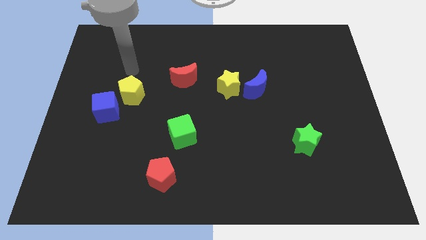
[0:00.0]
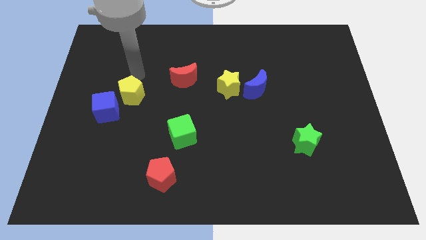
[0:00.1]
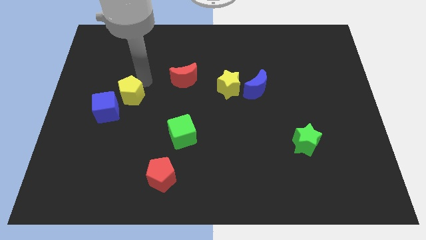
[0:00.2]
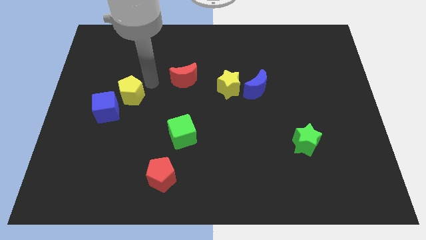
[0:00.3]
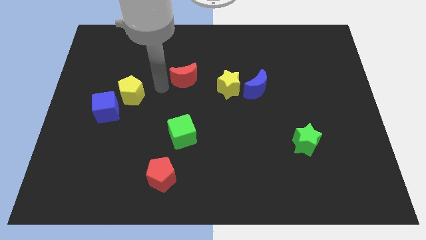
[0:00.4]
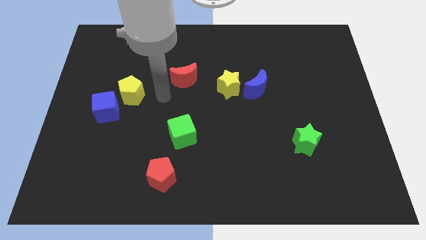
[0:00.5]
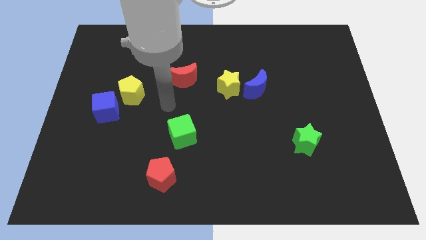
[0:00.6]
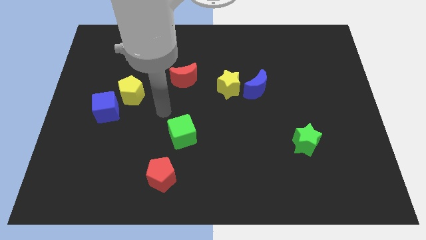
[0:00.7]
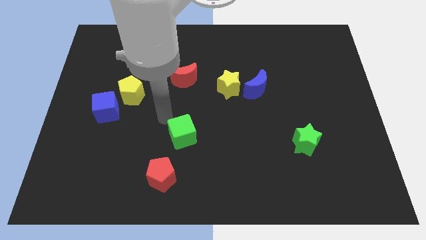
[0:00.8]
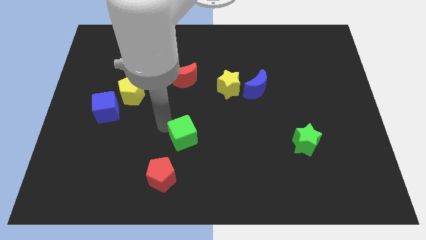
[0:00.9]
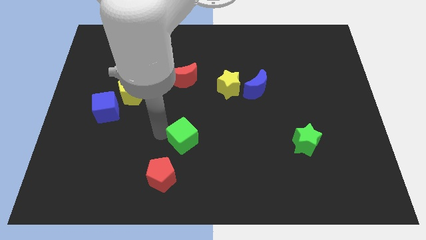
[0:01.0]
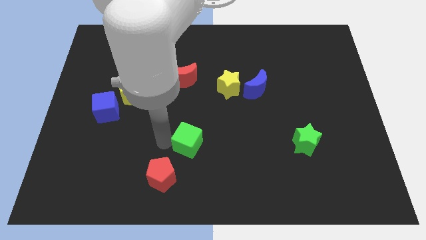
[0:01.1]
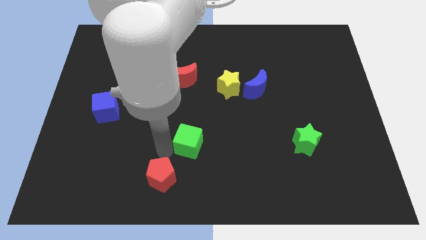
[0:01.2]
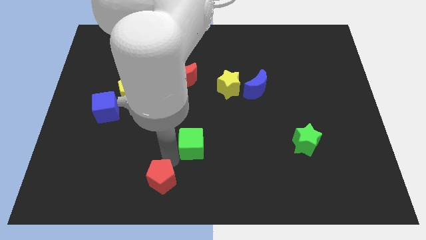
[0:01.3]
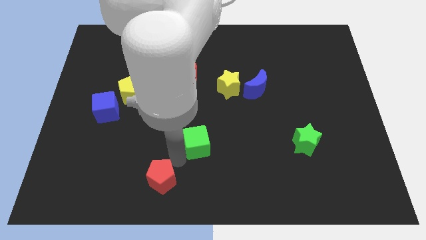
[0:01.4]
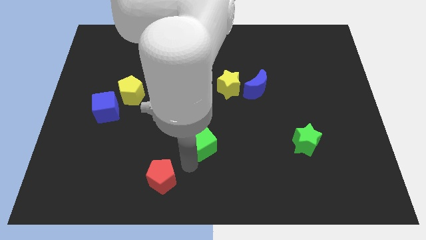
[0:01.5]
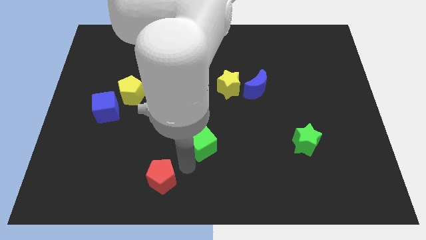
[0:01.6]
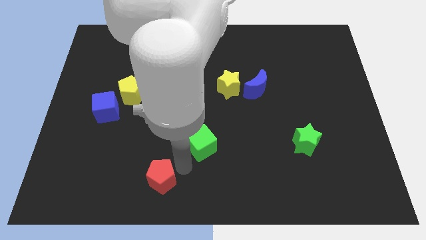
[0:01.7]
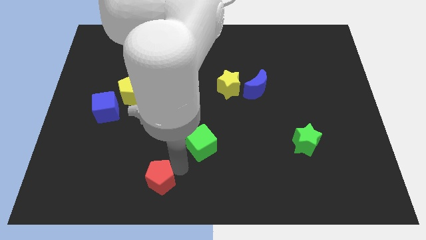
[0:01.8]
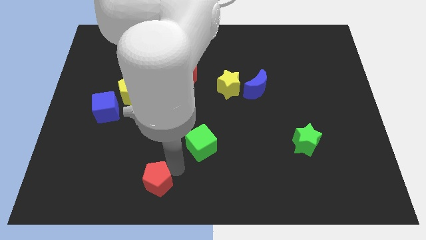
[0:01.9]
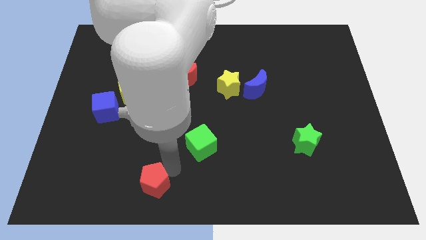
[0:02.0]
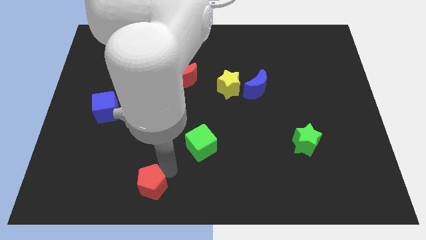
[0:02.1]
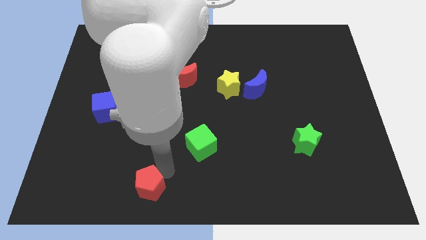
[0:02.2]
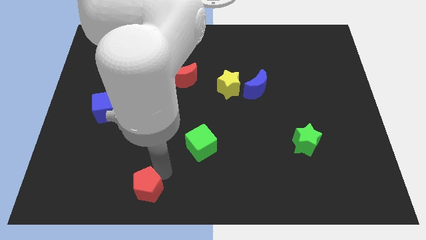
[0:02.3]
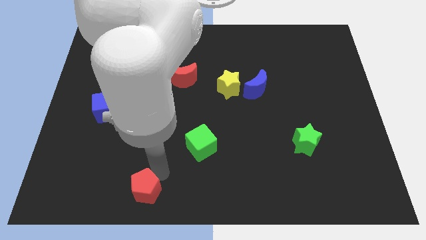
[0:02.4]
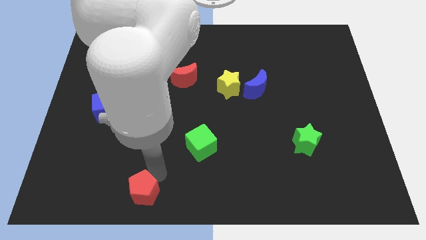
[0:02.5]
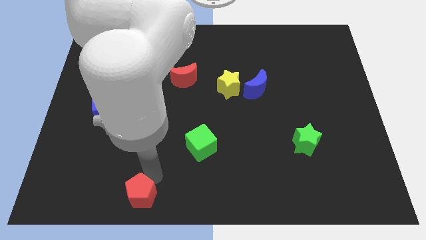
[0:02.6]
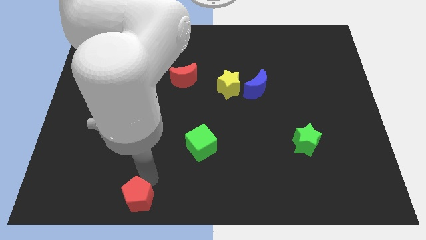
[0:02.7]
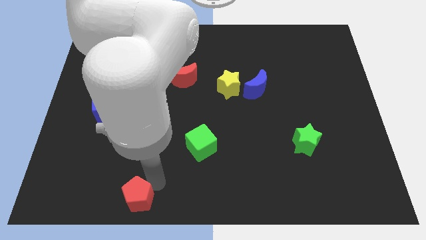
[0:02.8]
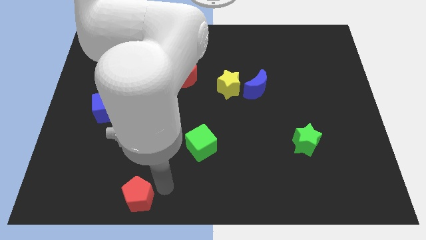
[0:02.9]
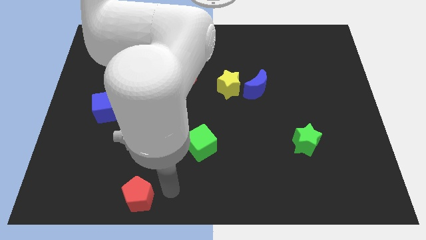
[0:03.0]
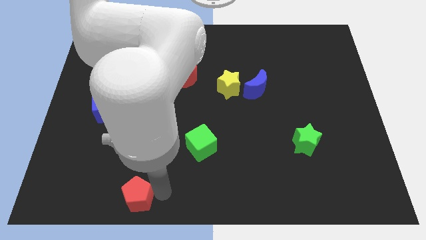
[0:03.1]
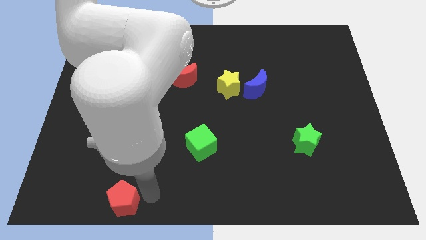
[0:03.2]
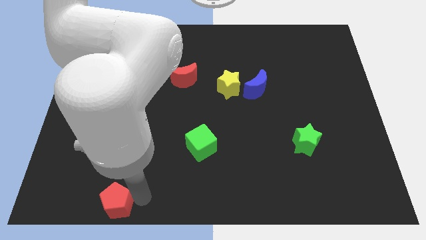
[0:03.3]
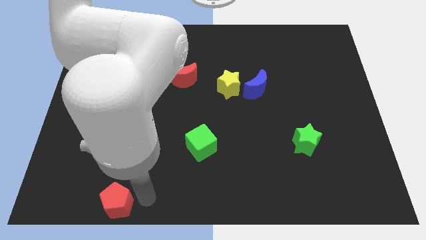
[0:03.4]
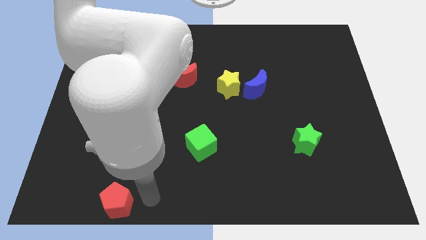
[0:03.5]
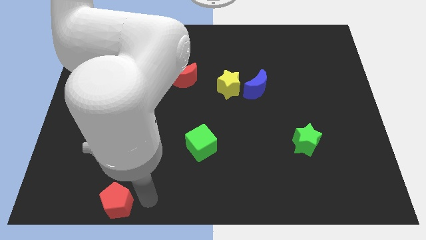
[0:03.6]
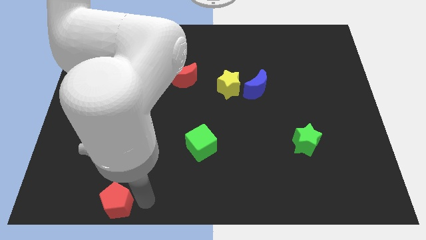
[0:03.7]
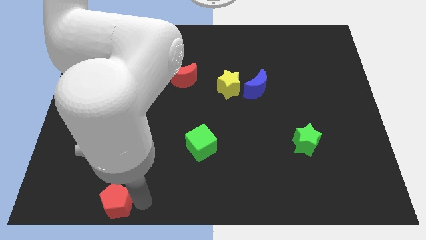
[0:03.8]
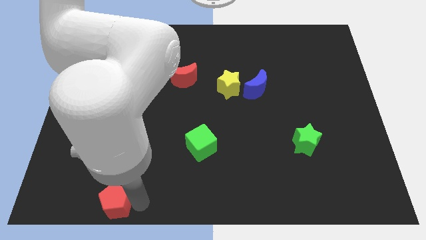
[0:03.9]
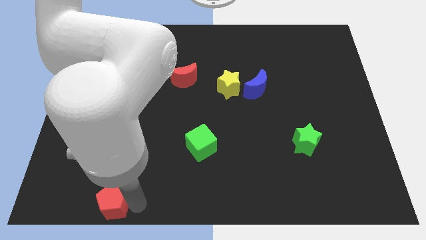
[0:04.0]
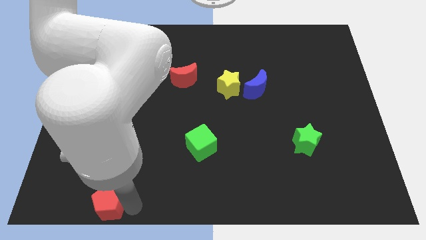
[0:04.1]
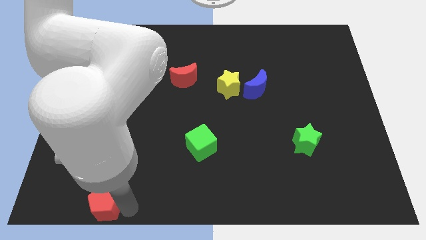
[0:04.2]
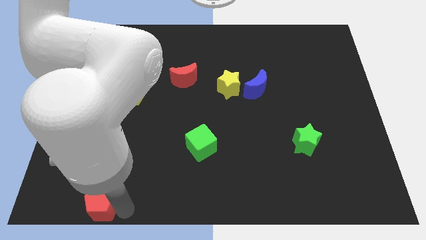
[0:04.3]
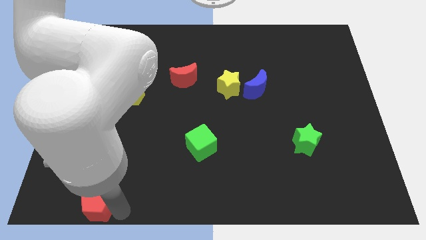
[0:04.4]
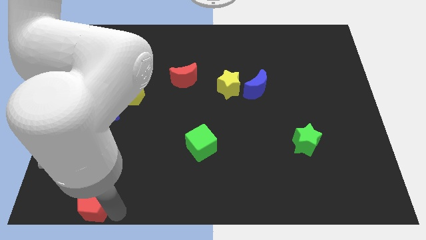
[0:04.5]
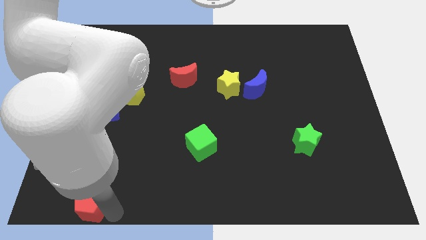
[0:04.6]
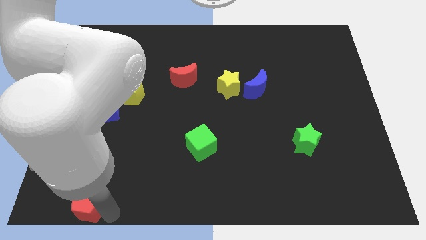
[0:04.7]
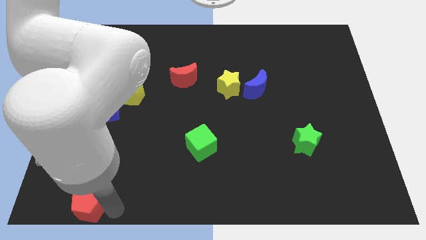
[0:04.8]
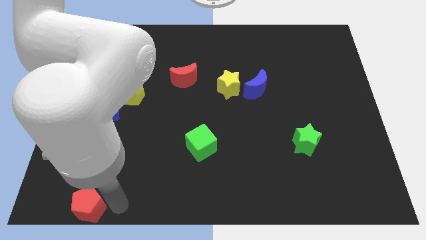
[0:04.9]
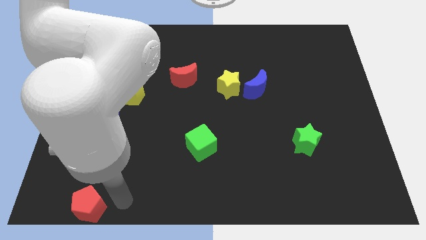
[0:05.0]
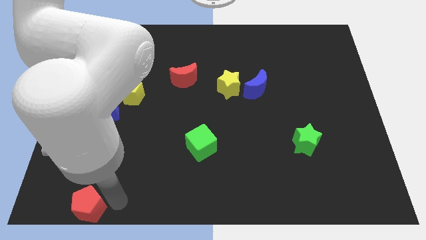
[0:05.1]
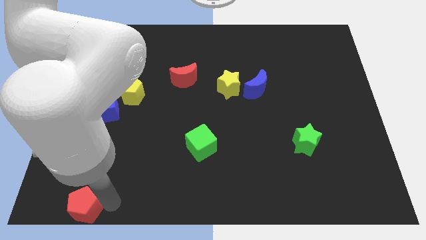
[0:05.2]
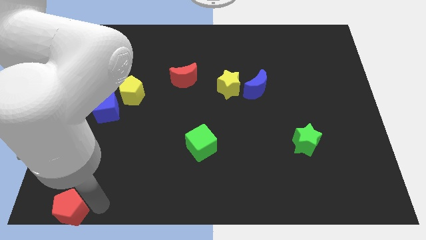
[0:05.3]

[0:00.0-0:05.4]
slide the red pentagon to the bottom left

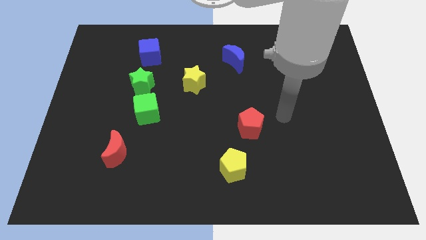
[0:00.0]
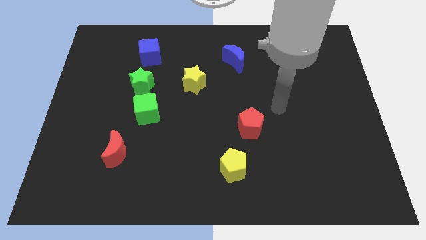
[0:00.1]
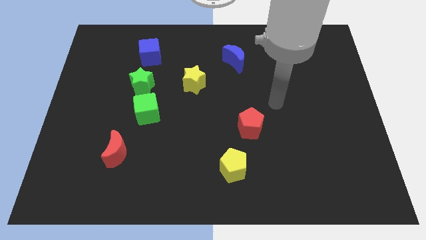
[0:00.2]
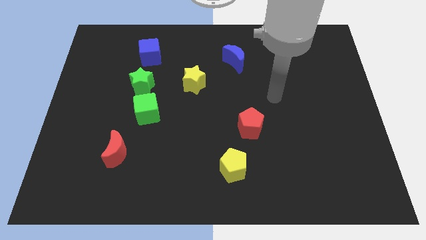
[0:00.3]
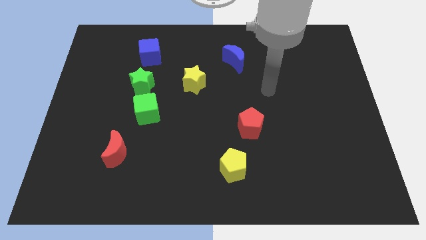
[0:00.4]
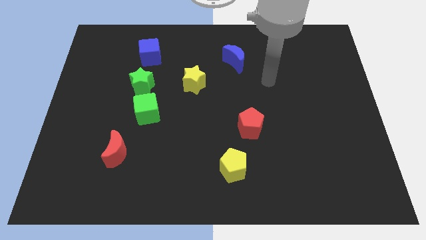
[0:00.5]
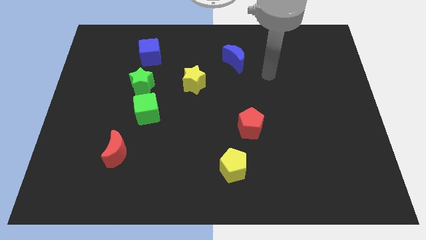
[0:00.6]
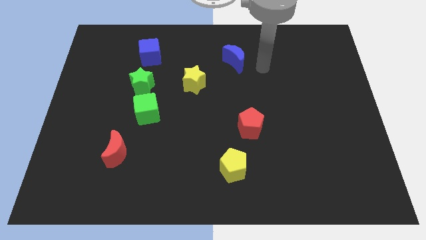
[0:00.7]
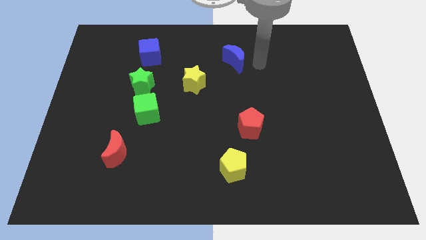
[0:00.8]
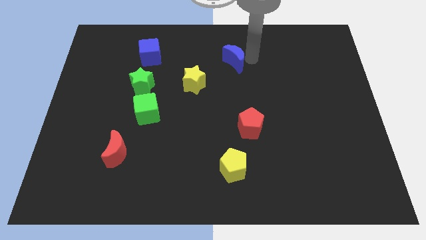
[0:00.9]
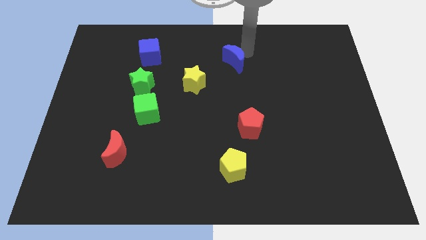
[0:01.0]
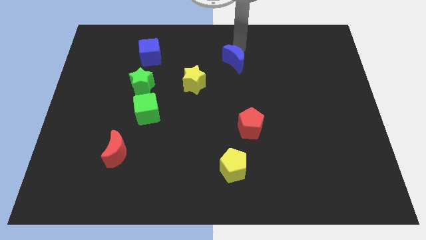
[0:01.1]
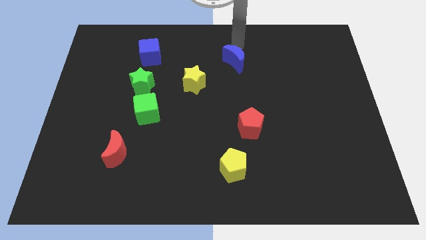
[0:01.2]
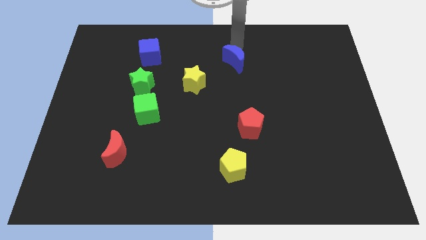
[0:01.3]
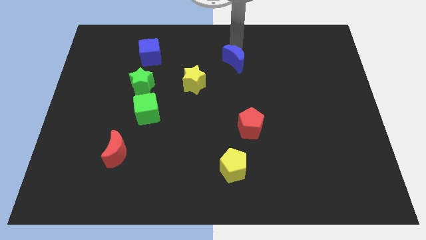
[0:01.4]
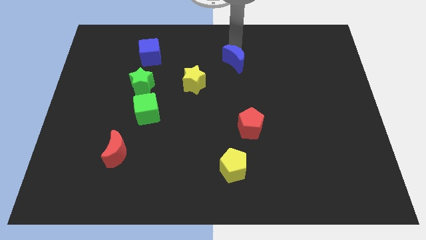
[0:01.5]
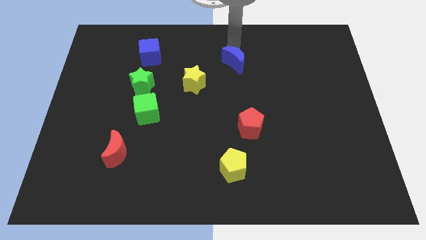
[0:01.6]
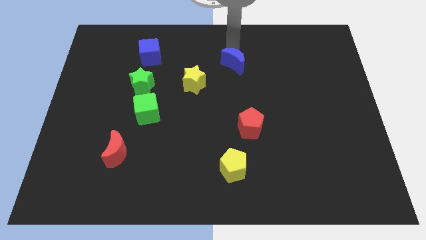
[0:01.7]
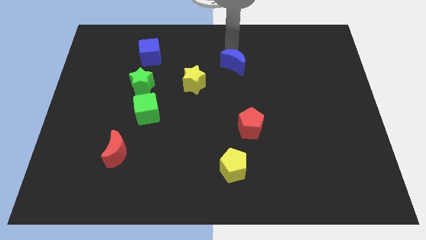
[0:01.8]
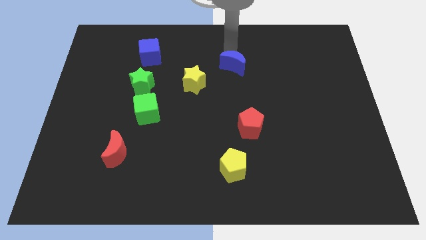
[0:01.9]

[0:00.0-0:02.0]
slide the blue moon to the center of the board
